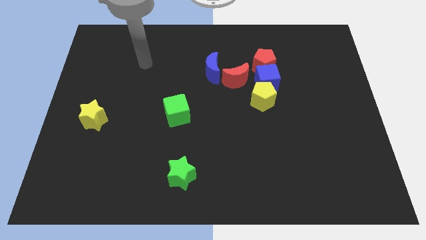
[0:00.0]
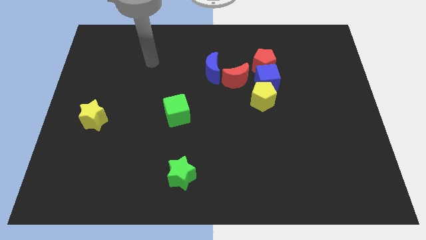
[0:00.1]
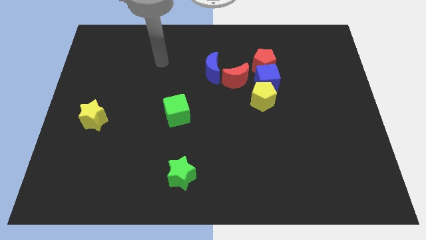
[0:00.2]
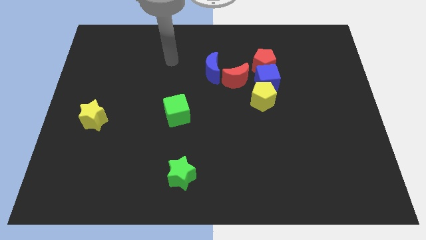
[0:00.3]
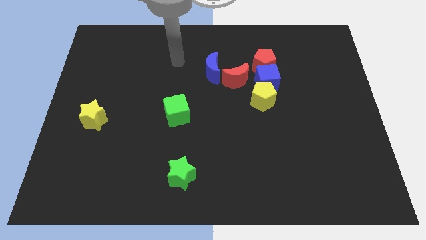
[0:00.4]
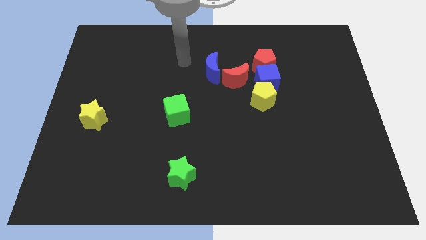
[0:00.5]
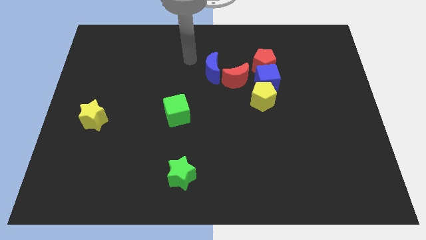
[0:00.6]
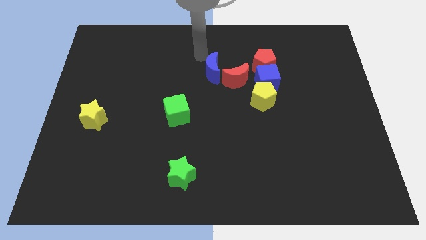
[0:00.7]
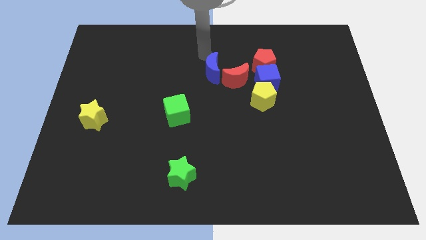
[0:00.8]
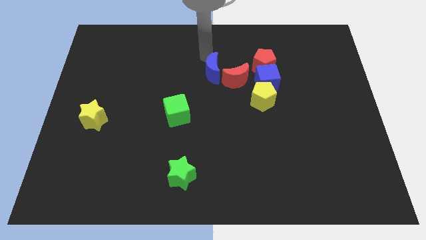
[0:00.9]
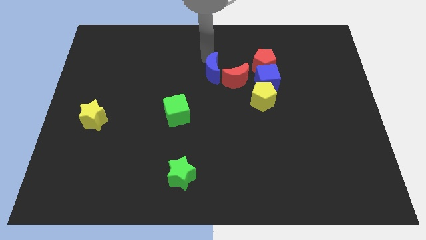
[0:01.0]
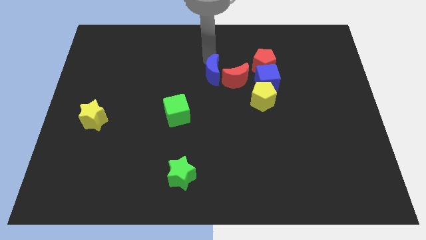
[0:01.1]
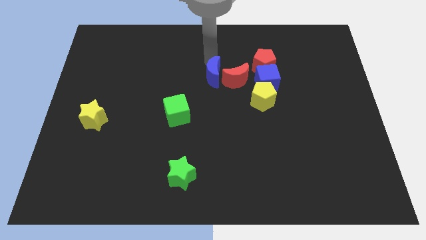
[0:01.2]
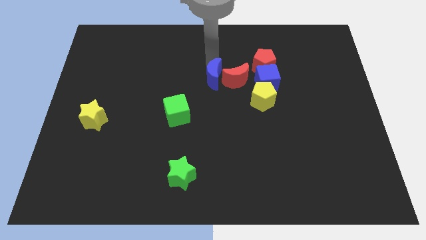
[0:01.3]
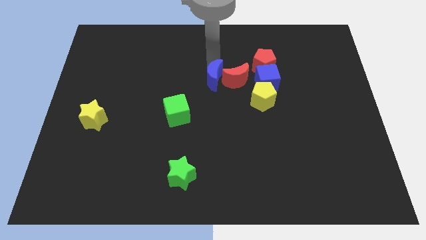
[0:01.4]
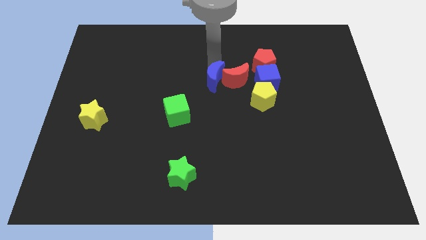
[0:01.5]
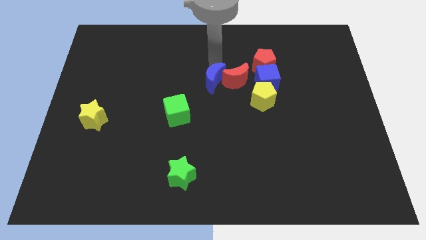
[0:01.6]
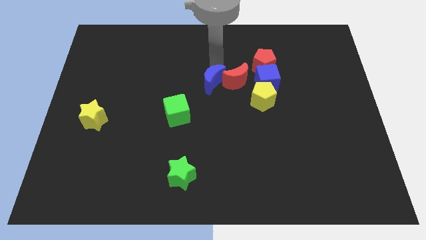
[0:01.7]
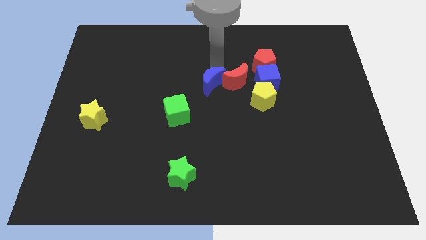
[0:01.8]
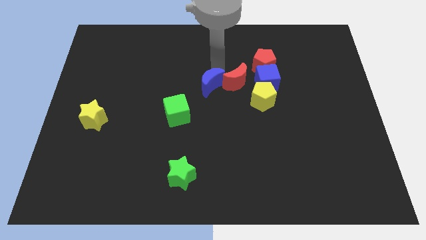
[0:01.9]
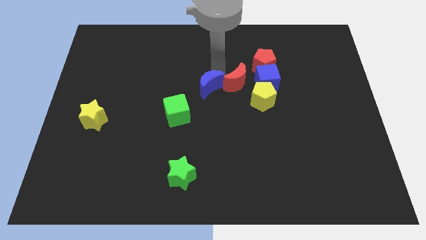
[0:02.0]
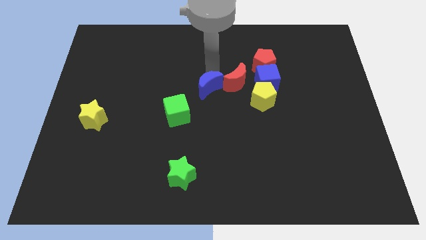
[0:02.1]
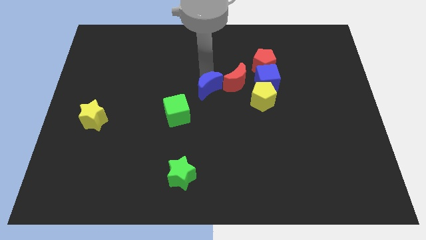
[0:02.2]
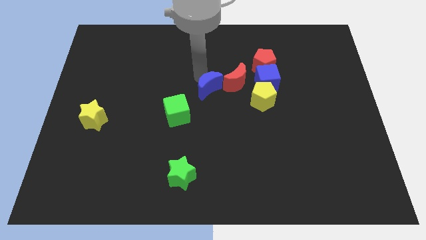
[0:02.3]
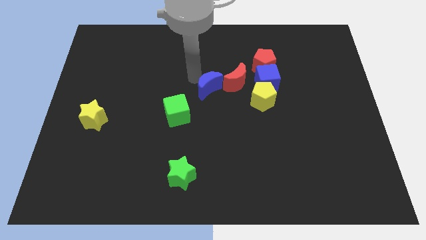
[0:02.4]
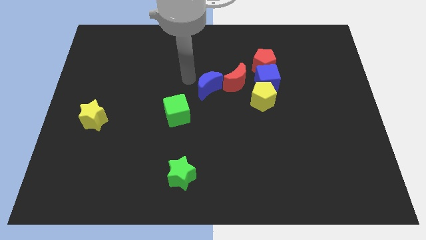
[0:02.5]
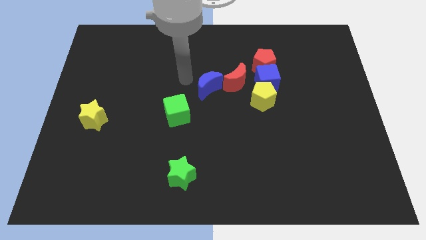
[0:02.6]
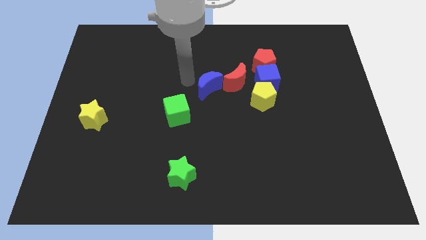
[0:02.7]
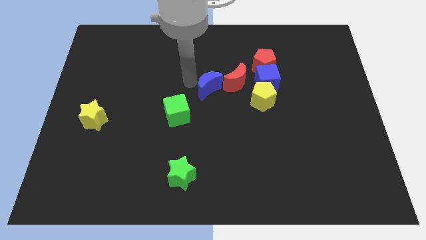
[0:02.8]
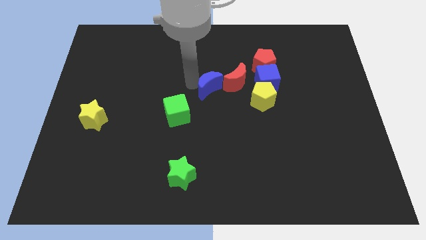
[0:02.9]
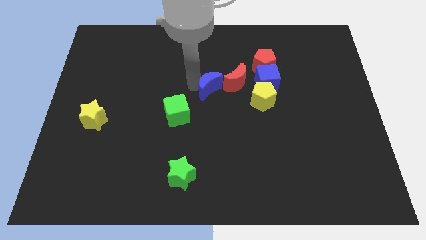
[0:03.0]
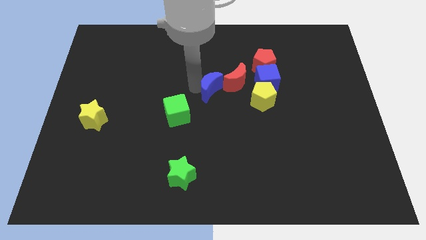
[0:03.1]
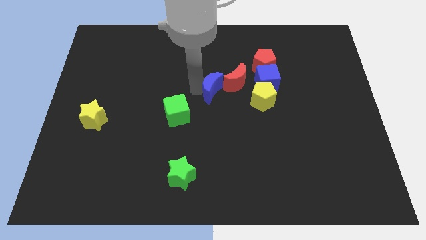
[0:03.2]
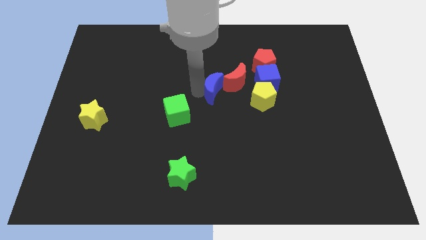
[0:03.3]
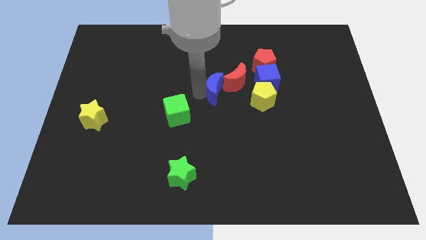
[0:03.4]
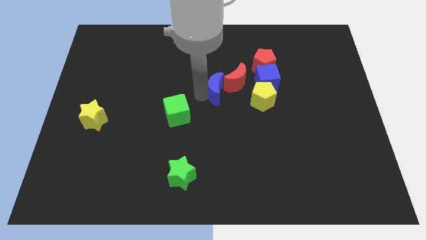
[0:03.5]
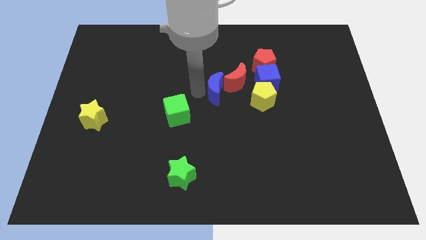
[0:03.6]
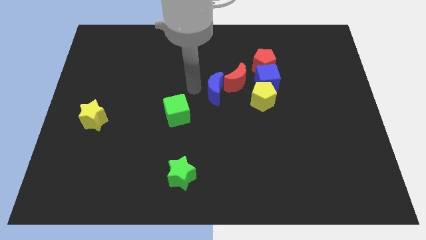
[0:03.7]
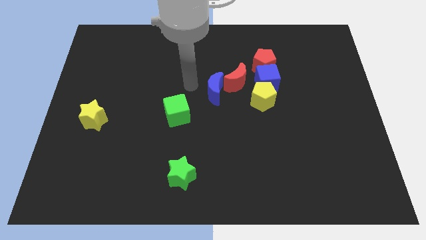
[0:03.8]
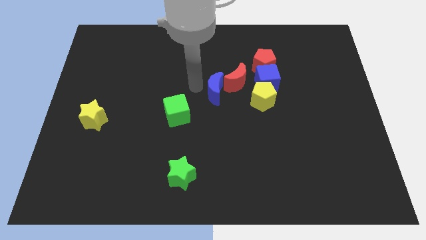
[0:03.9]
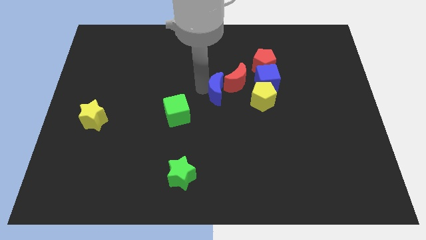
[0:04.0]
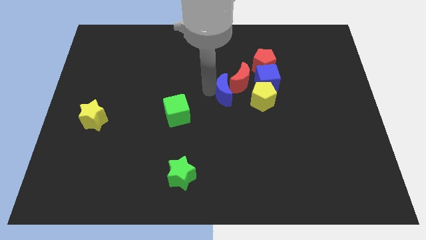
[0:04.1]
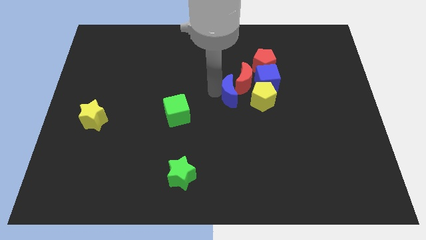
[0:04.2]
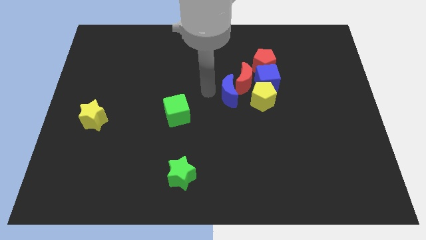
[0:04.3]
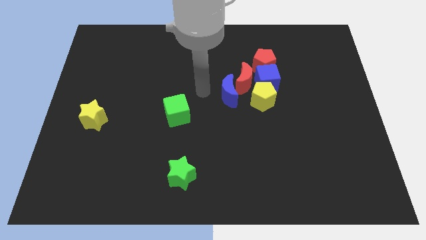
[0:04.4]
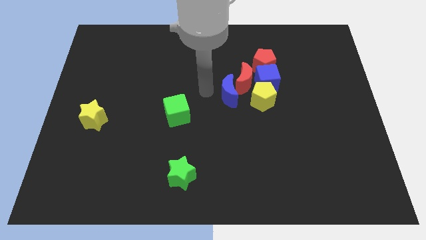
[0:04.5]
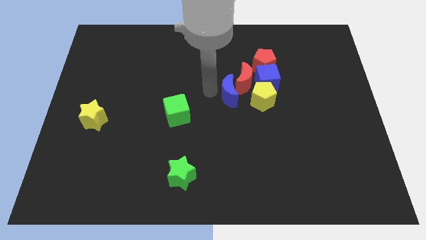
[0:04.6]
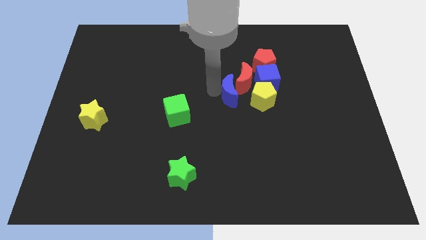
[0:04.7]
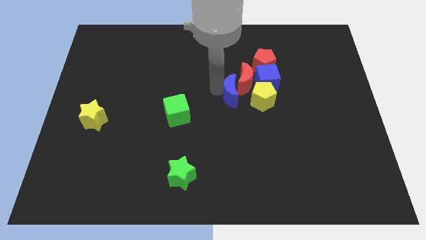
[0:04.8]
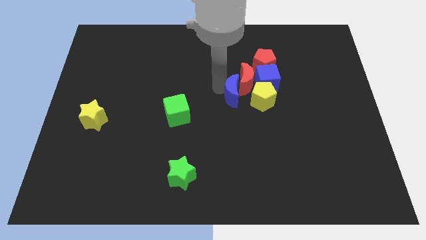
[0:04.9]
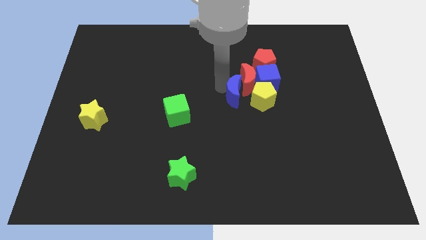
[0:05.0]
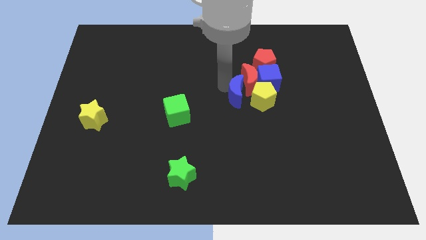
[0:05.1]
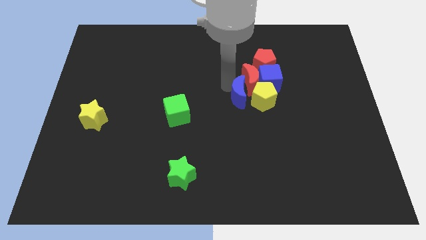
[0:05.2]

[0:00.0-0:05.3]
move the blue moon to the yellow pentagon

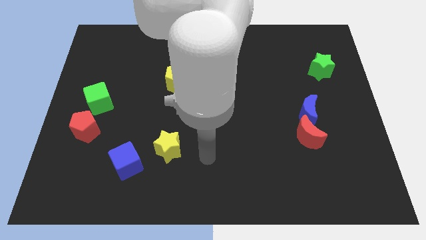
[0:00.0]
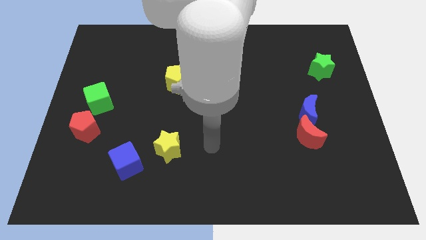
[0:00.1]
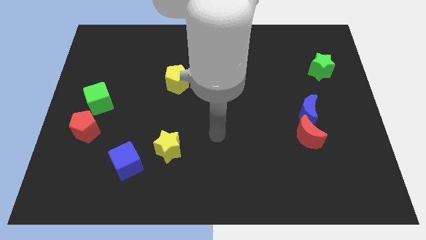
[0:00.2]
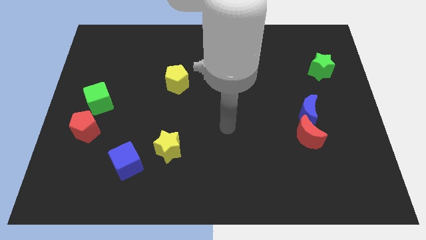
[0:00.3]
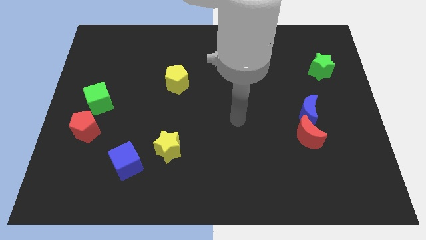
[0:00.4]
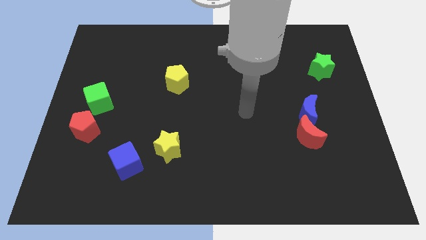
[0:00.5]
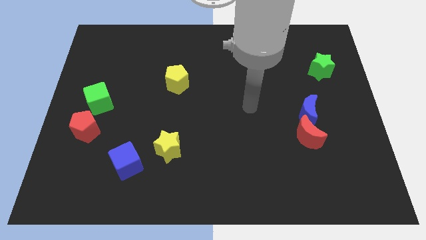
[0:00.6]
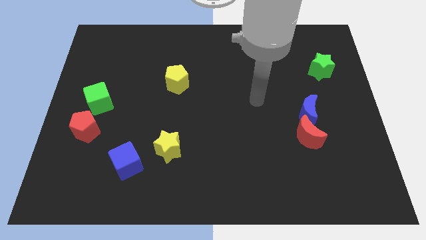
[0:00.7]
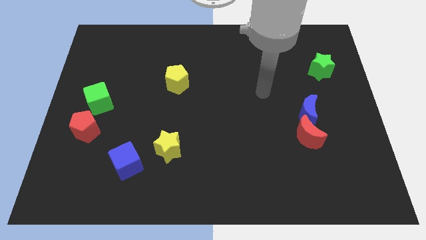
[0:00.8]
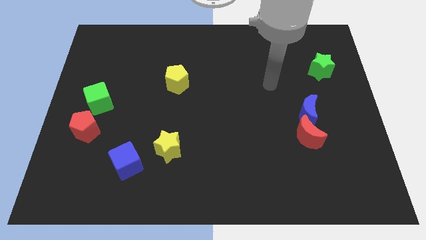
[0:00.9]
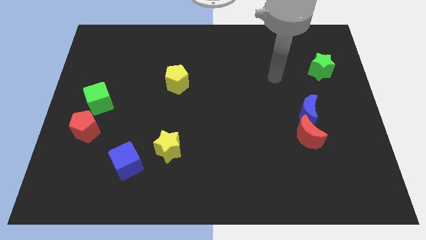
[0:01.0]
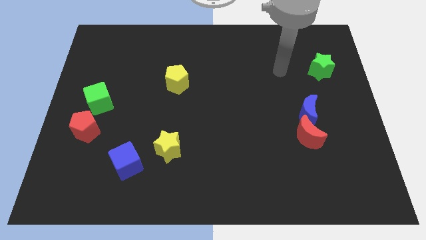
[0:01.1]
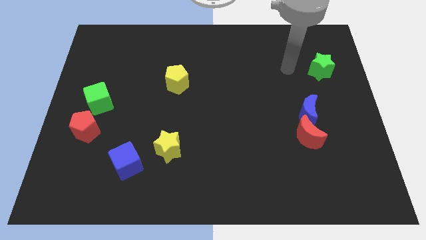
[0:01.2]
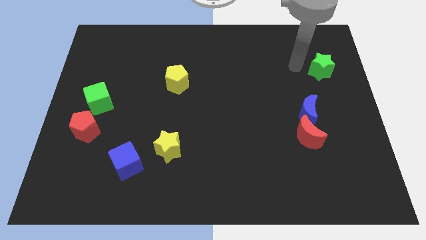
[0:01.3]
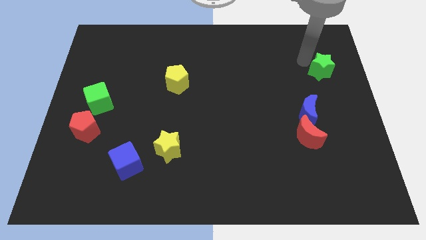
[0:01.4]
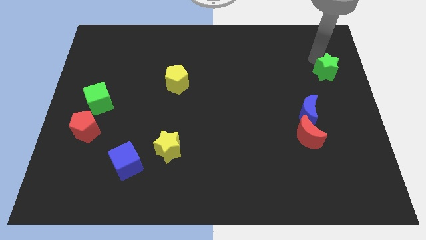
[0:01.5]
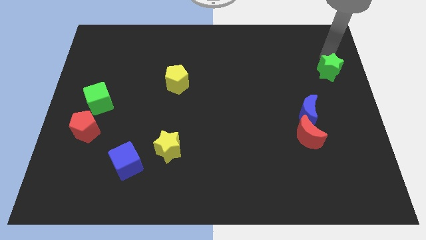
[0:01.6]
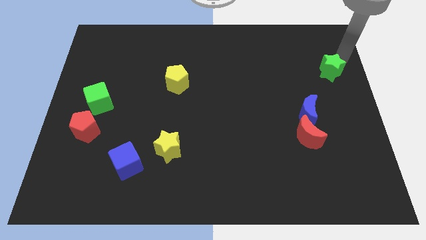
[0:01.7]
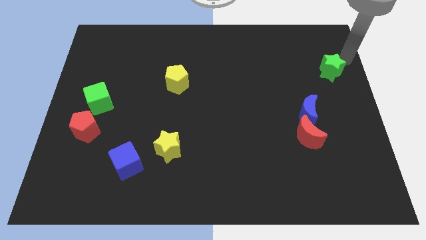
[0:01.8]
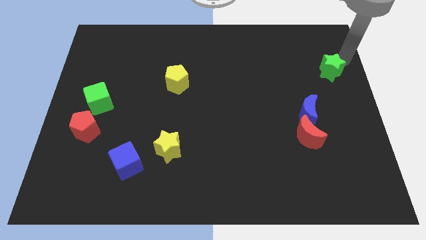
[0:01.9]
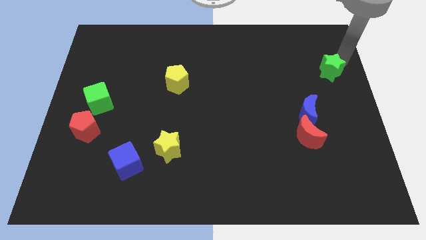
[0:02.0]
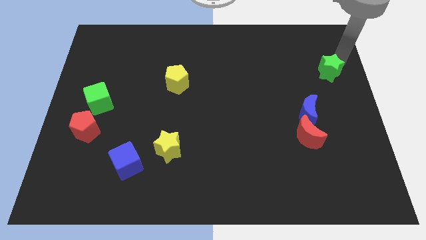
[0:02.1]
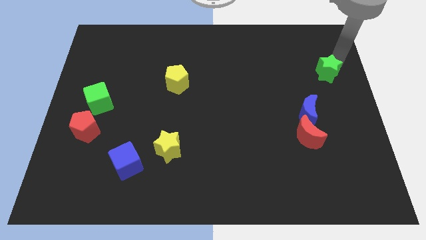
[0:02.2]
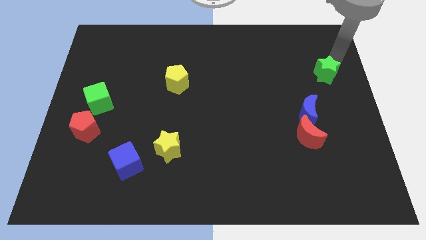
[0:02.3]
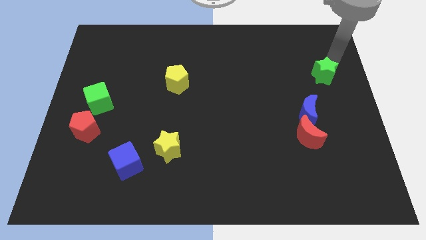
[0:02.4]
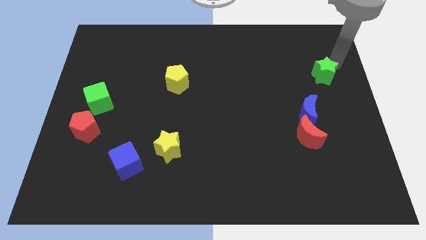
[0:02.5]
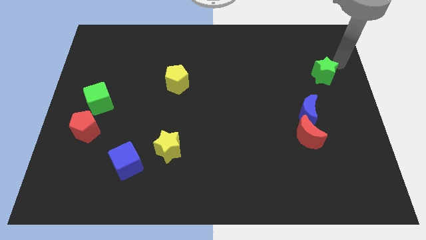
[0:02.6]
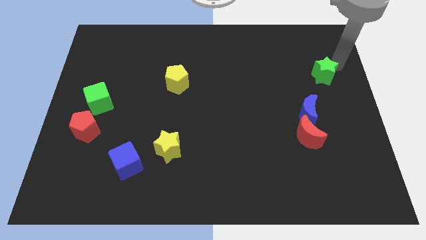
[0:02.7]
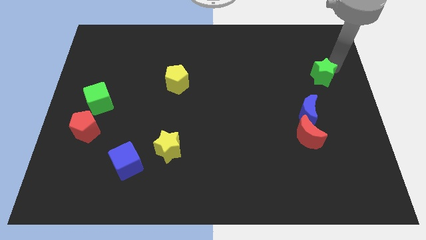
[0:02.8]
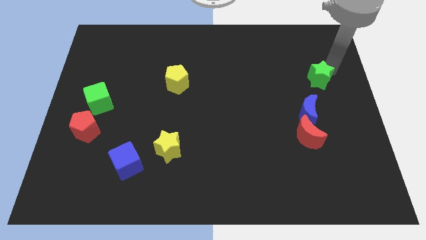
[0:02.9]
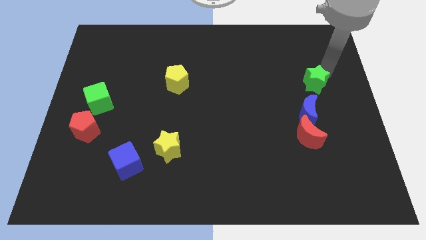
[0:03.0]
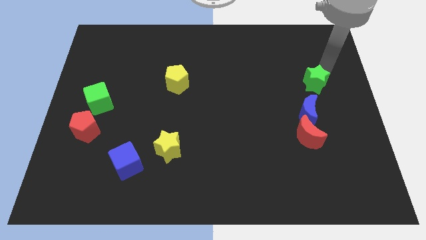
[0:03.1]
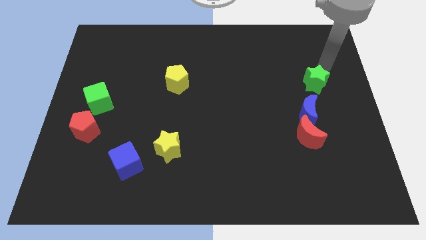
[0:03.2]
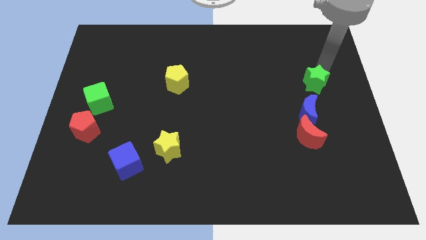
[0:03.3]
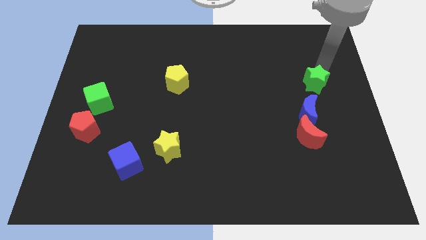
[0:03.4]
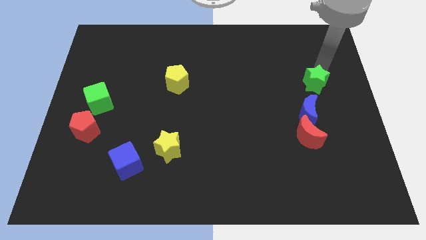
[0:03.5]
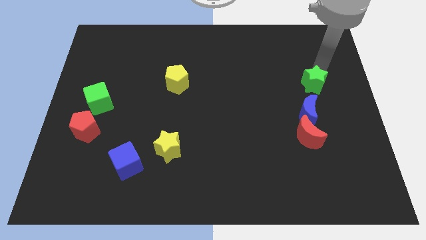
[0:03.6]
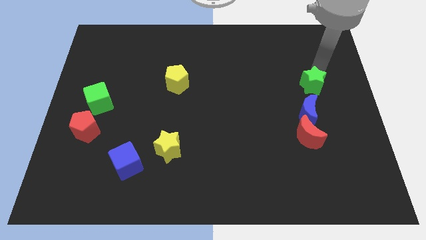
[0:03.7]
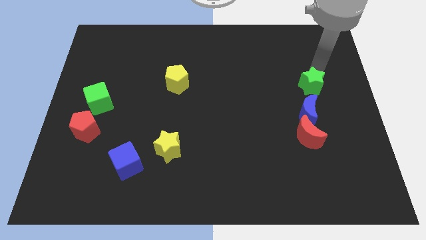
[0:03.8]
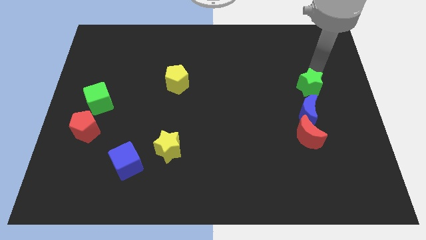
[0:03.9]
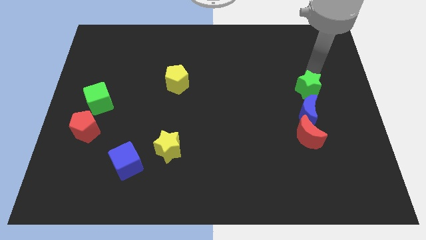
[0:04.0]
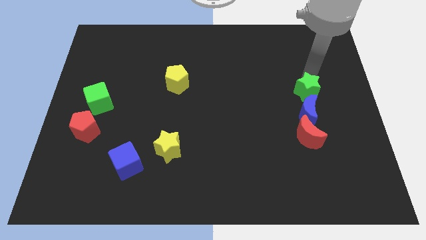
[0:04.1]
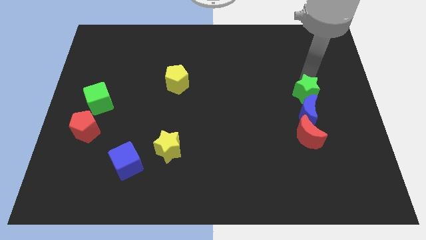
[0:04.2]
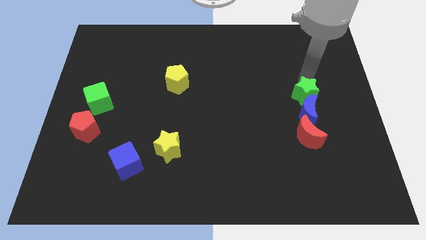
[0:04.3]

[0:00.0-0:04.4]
push the green star next to the blue moon
